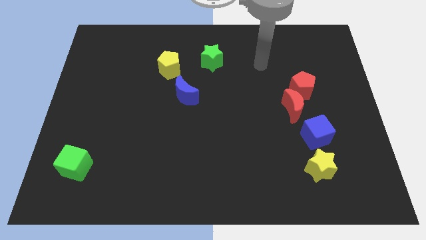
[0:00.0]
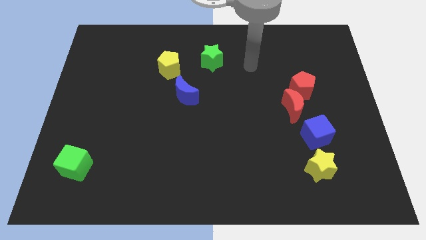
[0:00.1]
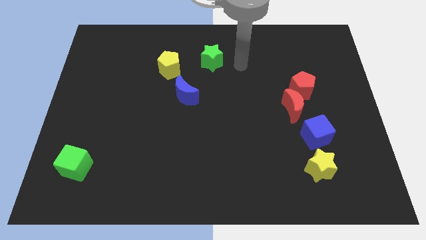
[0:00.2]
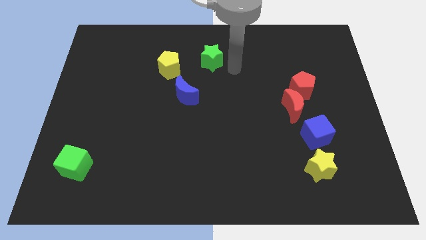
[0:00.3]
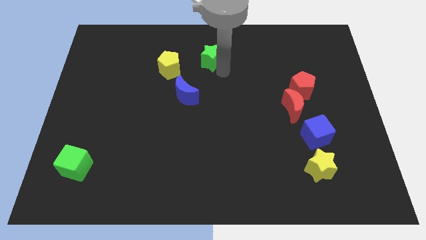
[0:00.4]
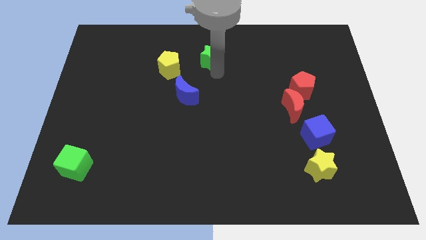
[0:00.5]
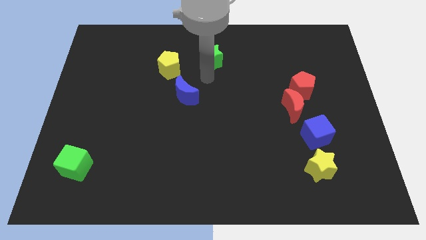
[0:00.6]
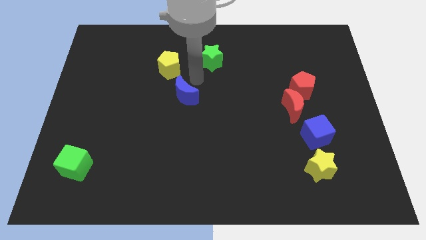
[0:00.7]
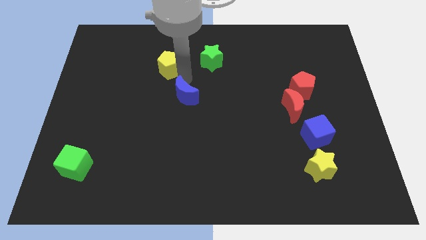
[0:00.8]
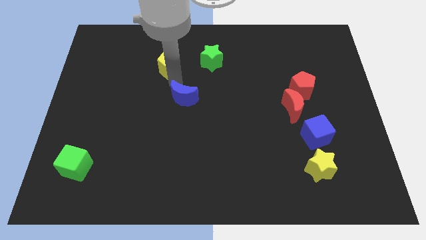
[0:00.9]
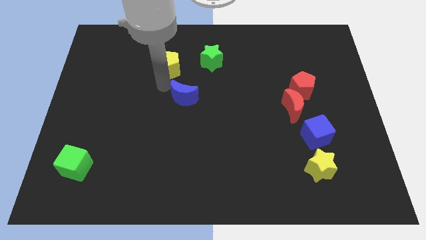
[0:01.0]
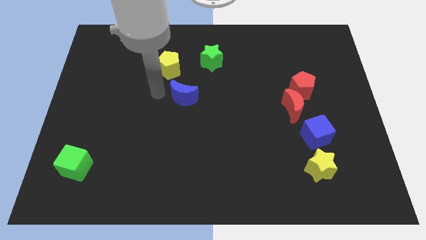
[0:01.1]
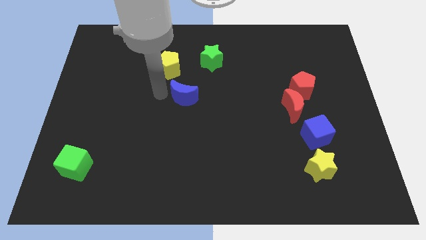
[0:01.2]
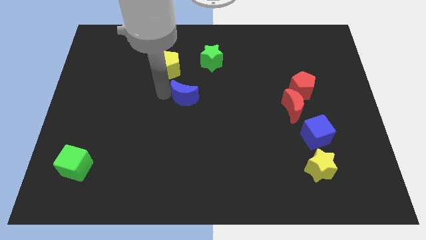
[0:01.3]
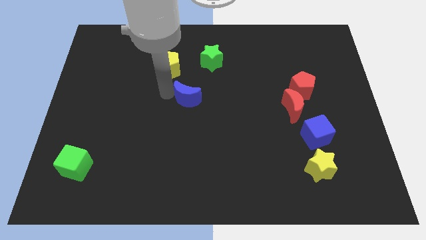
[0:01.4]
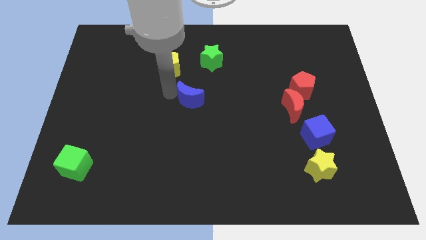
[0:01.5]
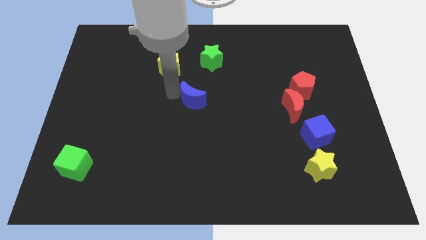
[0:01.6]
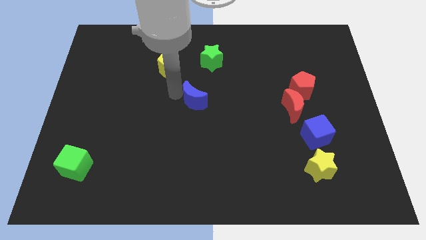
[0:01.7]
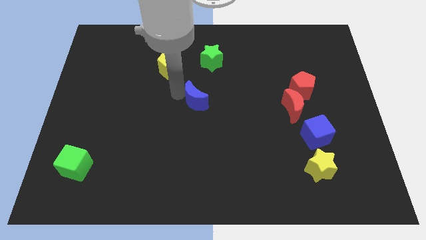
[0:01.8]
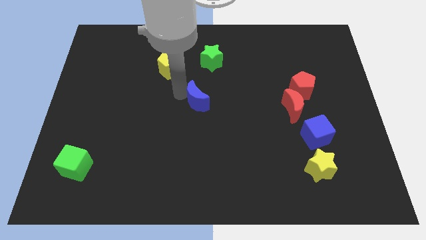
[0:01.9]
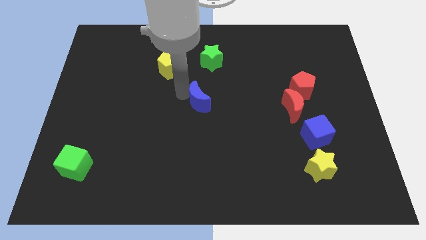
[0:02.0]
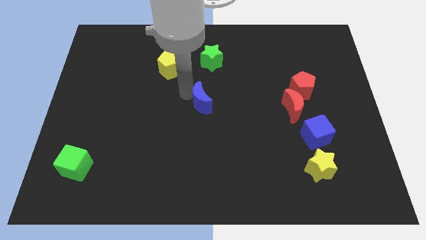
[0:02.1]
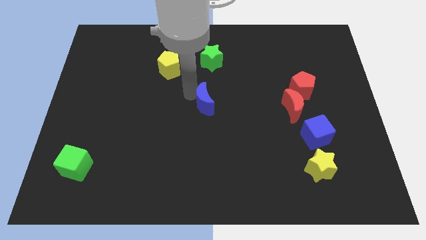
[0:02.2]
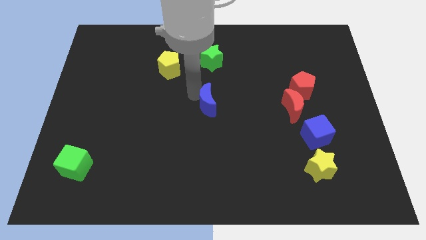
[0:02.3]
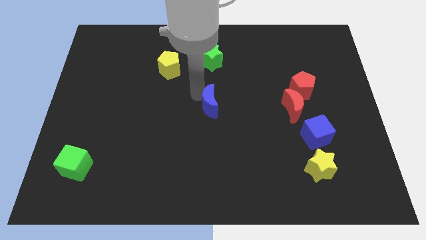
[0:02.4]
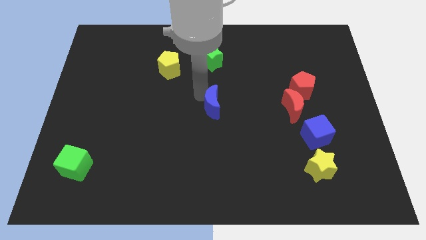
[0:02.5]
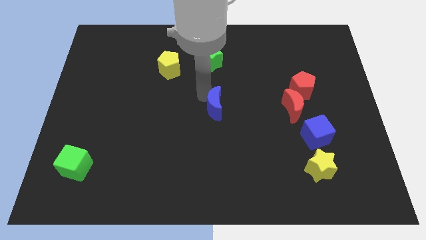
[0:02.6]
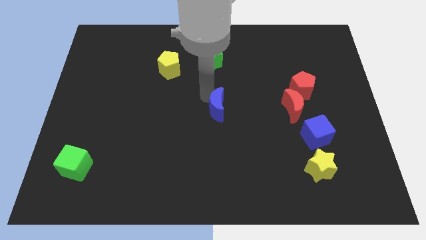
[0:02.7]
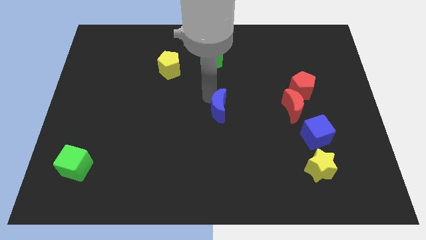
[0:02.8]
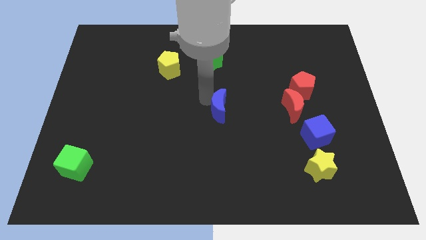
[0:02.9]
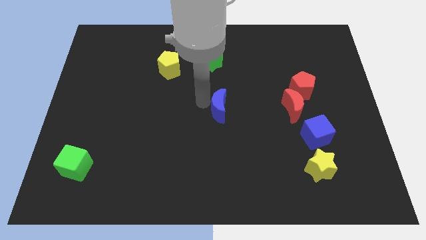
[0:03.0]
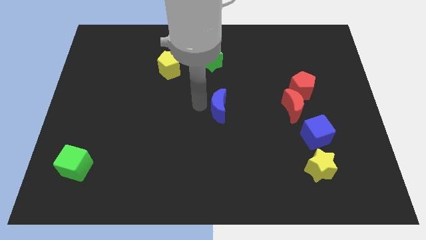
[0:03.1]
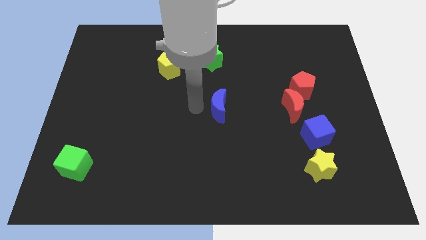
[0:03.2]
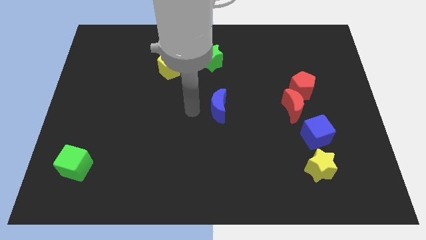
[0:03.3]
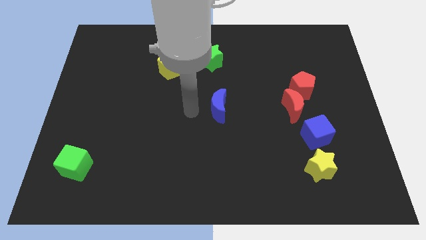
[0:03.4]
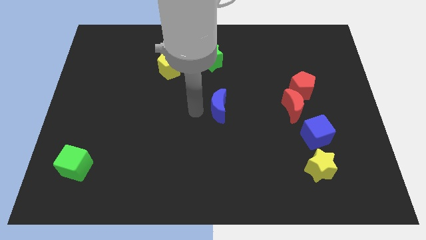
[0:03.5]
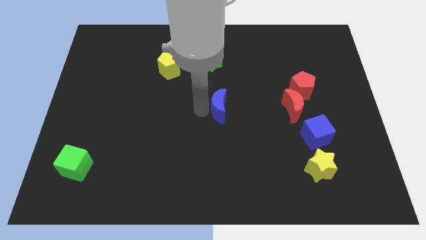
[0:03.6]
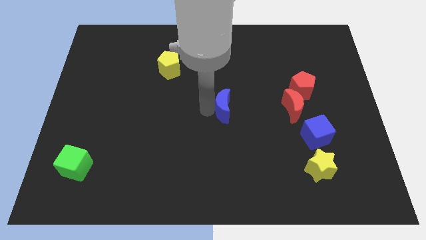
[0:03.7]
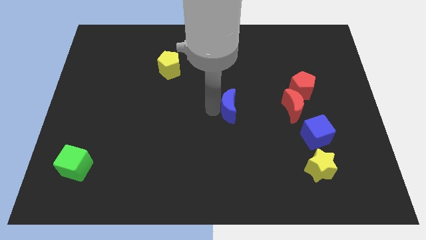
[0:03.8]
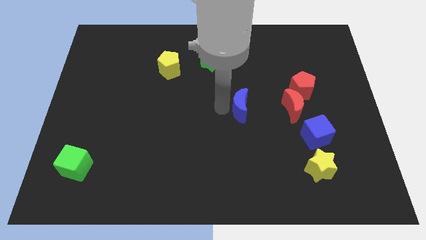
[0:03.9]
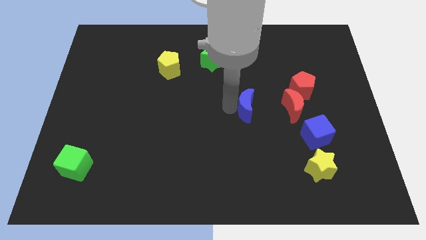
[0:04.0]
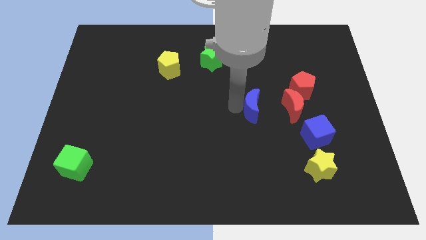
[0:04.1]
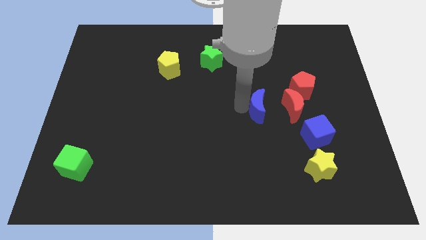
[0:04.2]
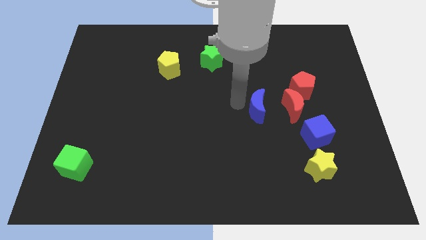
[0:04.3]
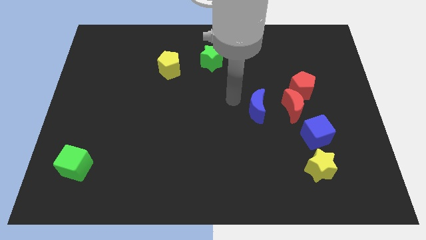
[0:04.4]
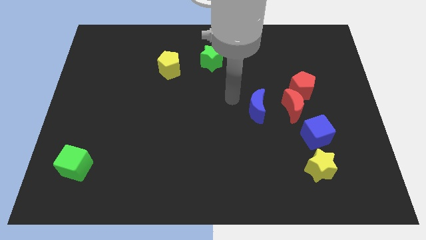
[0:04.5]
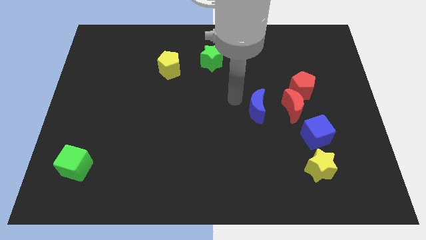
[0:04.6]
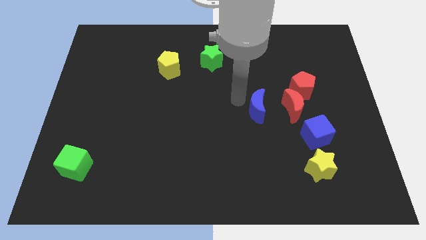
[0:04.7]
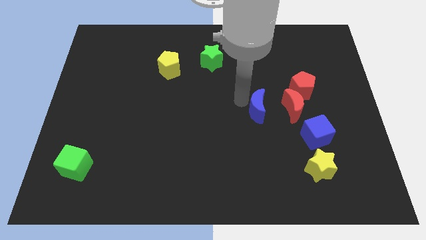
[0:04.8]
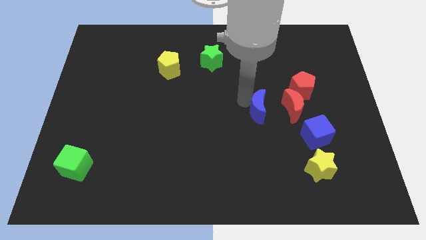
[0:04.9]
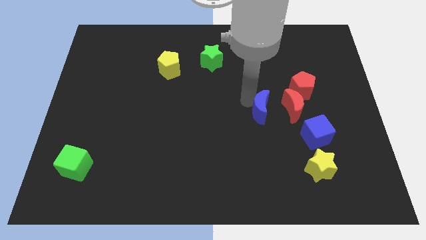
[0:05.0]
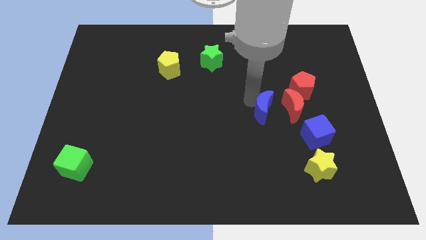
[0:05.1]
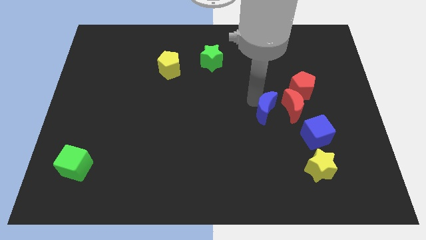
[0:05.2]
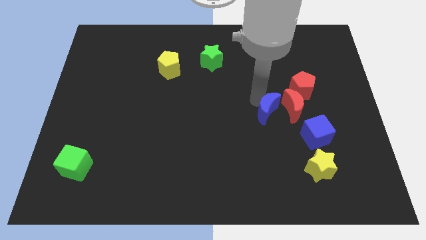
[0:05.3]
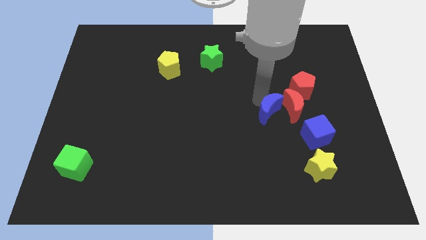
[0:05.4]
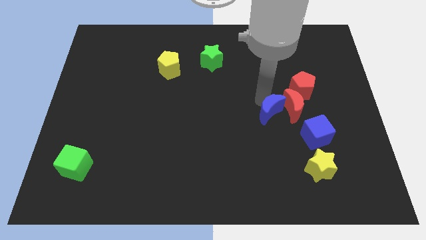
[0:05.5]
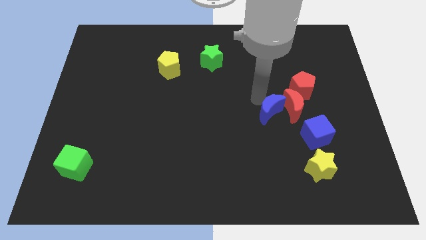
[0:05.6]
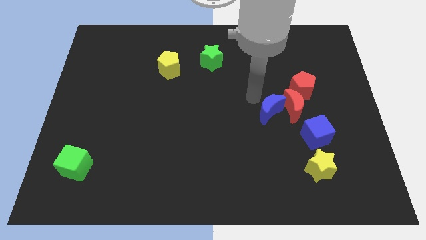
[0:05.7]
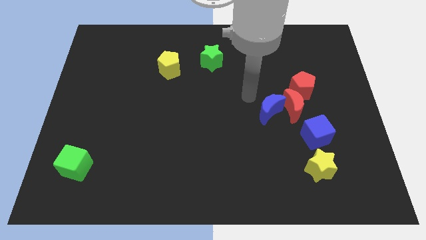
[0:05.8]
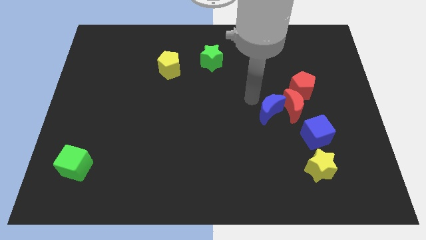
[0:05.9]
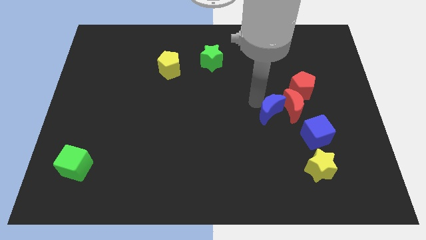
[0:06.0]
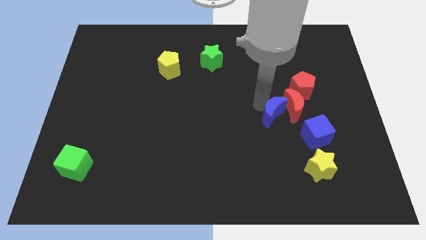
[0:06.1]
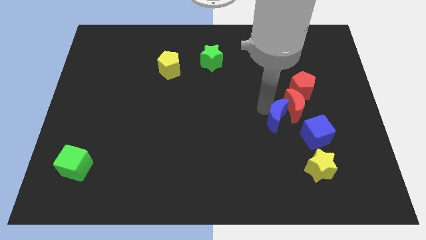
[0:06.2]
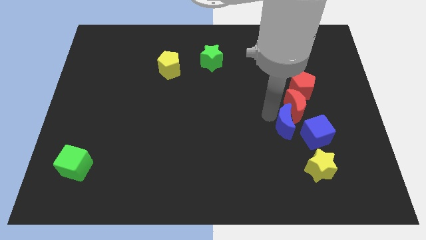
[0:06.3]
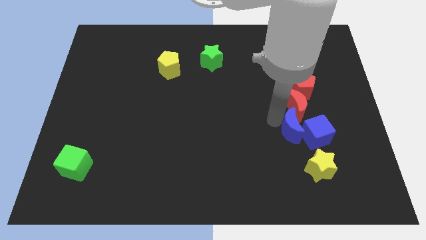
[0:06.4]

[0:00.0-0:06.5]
move the blue moon to the top side of the yellow star
